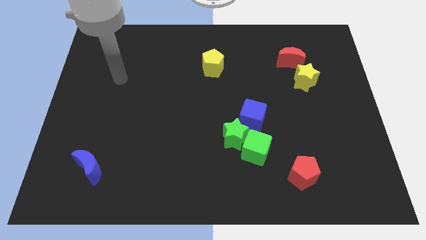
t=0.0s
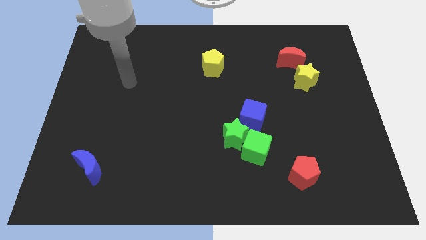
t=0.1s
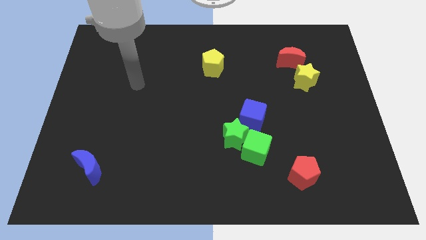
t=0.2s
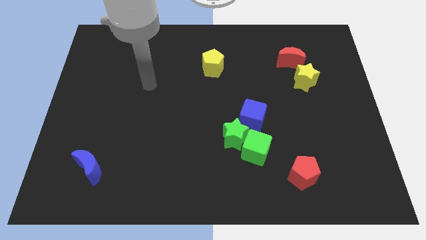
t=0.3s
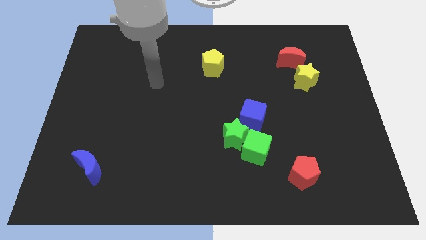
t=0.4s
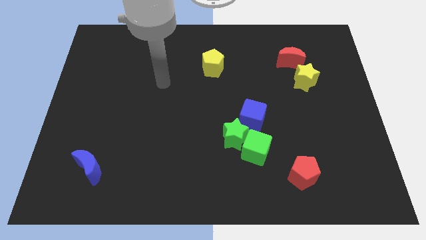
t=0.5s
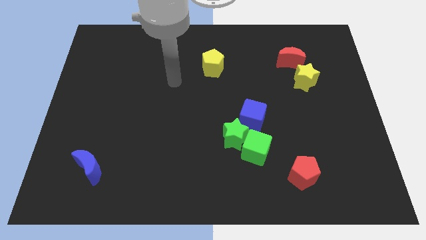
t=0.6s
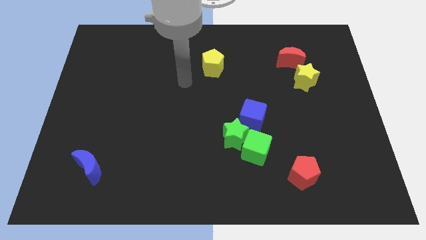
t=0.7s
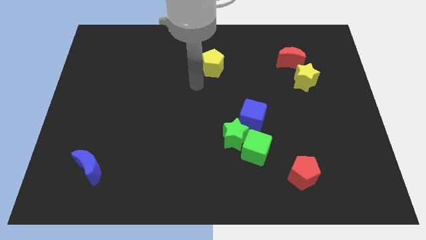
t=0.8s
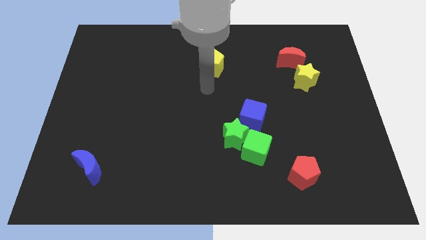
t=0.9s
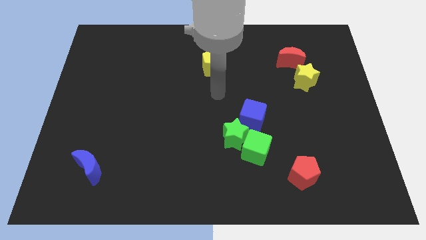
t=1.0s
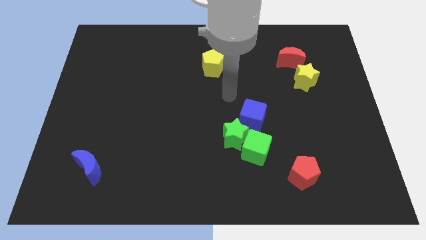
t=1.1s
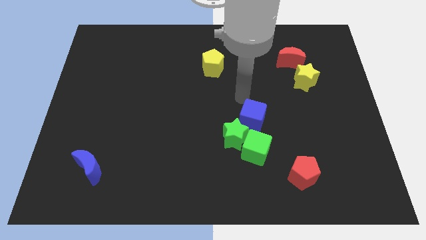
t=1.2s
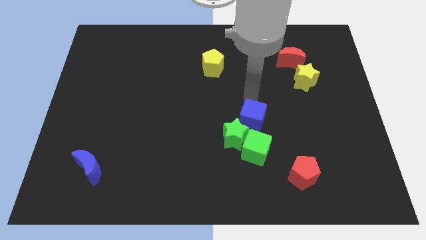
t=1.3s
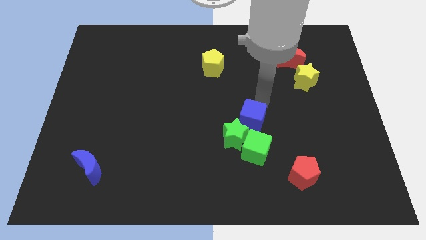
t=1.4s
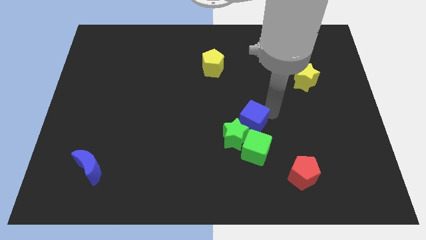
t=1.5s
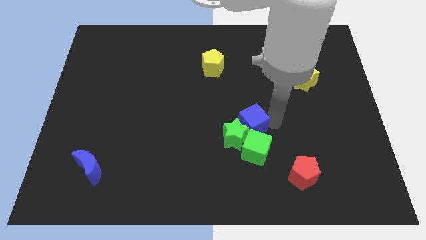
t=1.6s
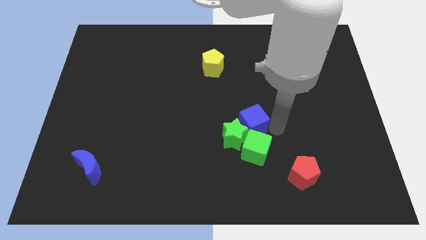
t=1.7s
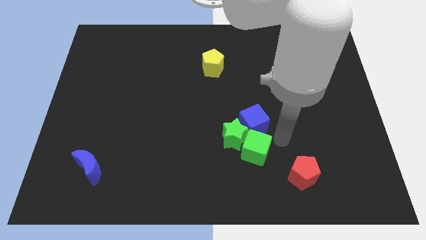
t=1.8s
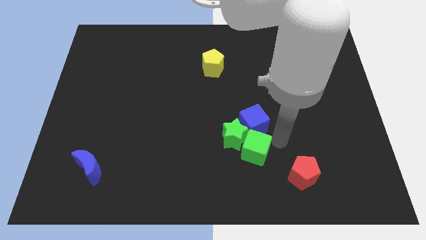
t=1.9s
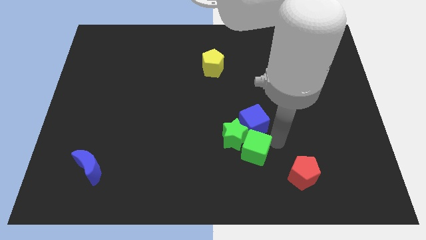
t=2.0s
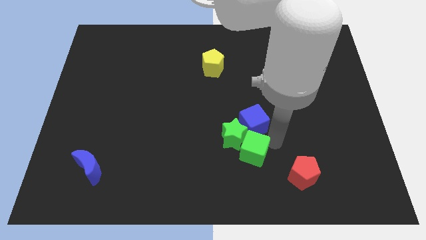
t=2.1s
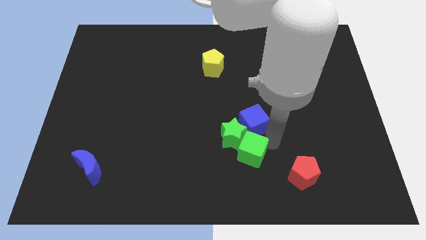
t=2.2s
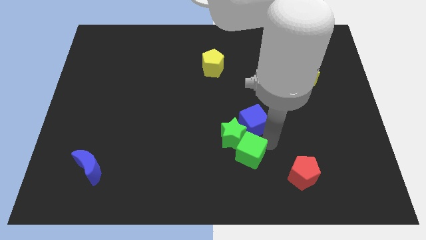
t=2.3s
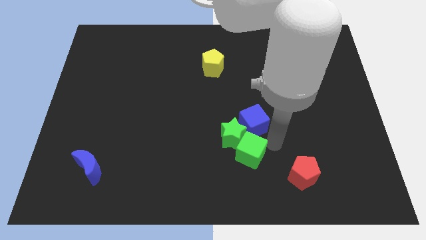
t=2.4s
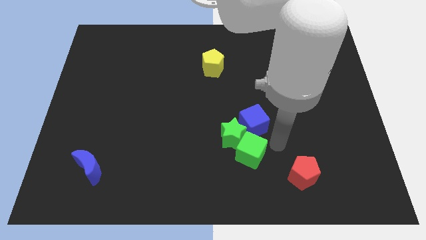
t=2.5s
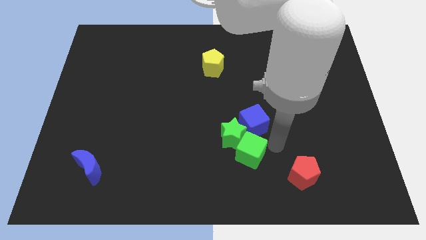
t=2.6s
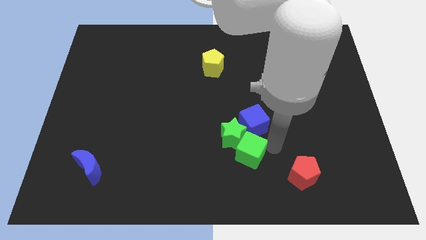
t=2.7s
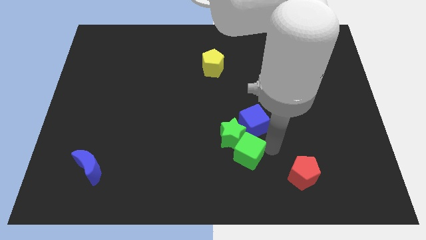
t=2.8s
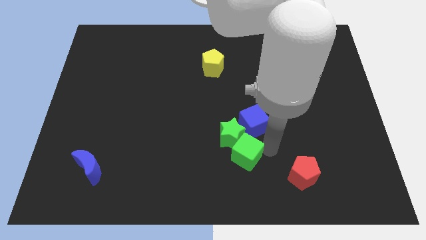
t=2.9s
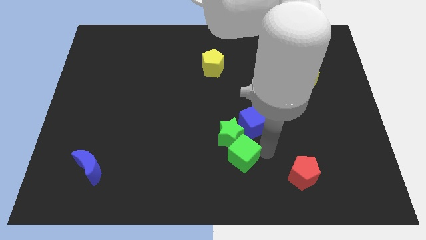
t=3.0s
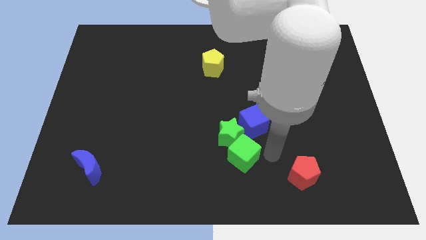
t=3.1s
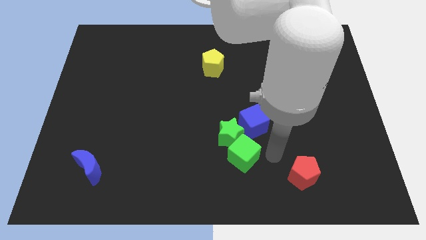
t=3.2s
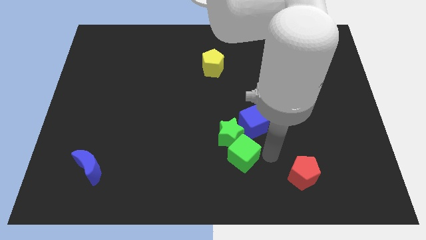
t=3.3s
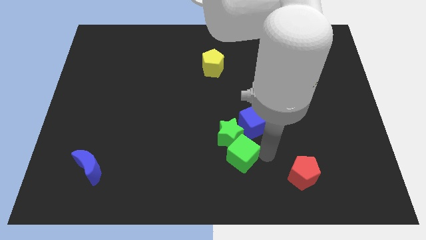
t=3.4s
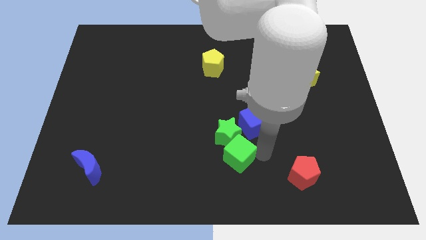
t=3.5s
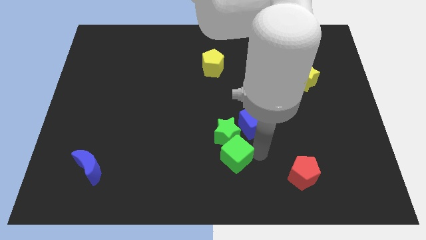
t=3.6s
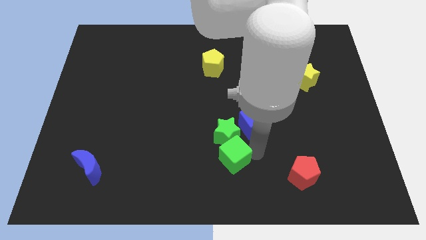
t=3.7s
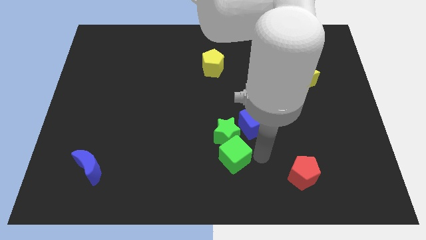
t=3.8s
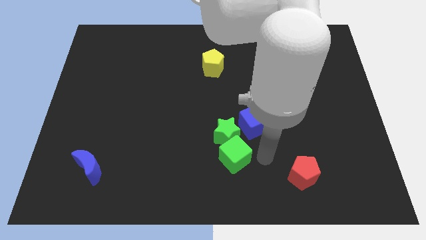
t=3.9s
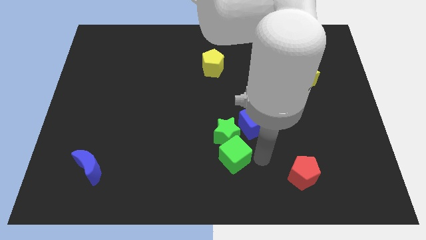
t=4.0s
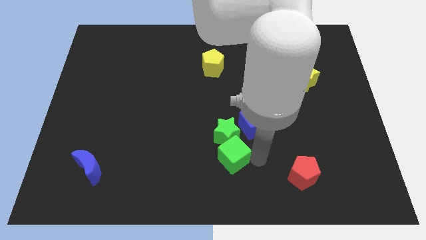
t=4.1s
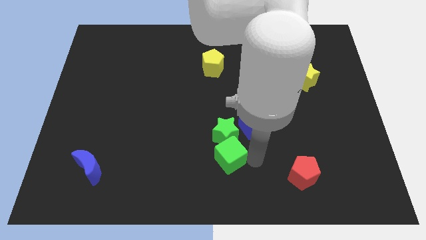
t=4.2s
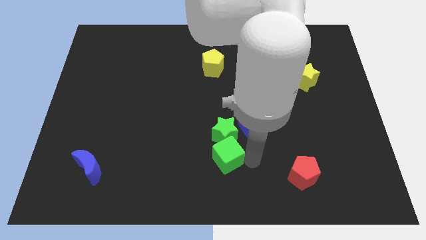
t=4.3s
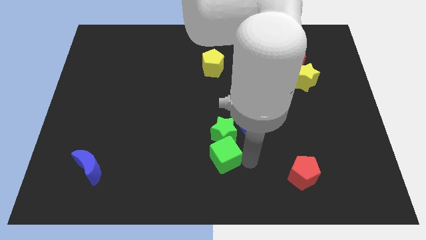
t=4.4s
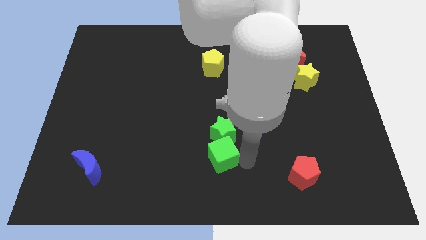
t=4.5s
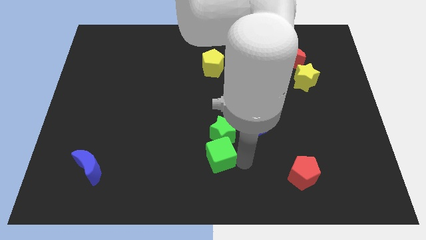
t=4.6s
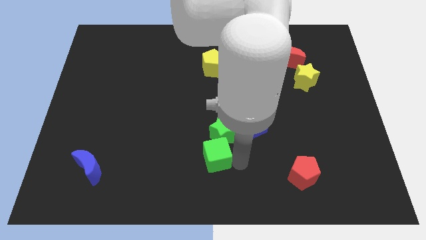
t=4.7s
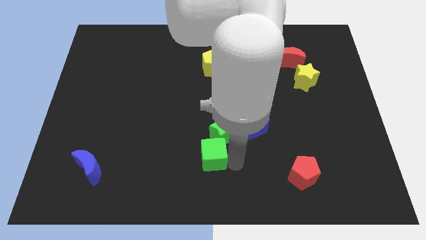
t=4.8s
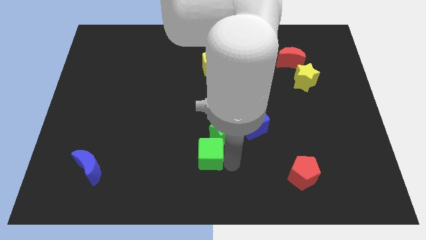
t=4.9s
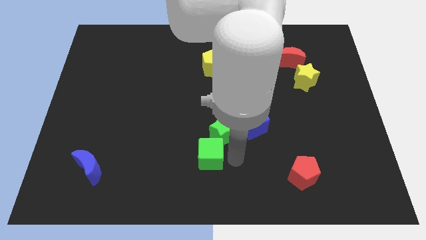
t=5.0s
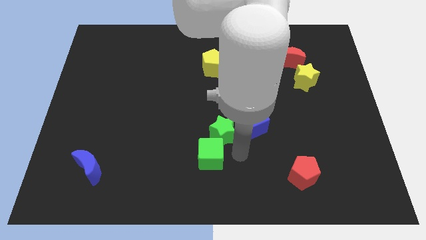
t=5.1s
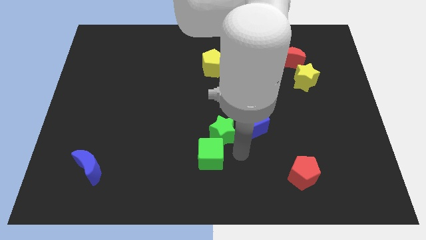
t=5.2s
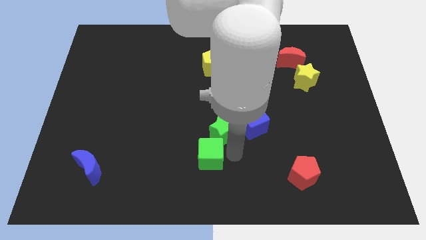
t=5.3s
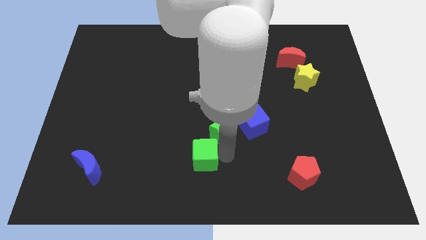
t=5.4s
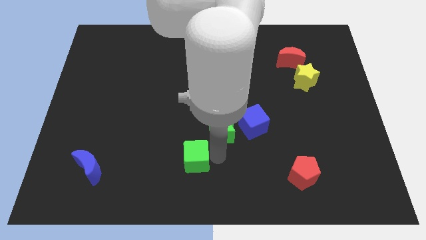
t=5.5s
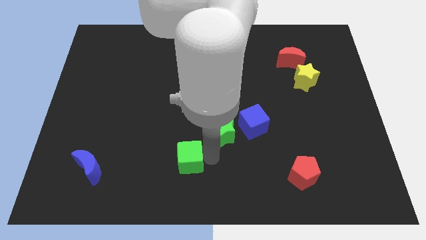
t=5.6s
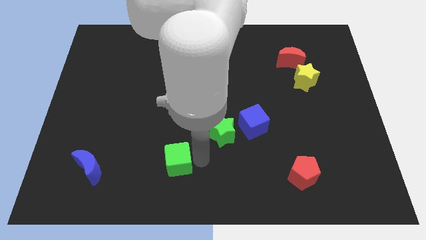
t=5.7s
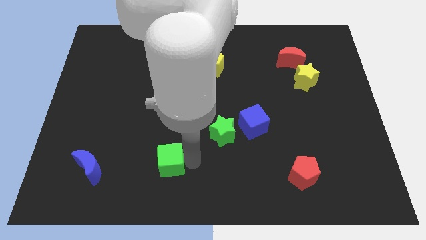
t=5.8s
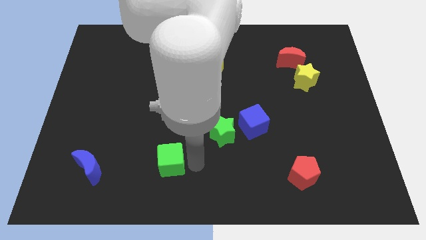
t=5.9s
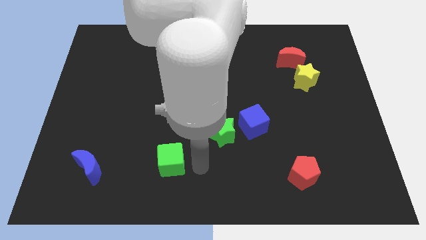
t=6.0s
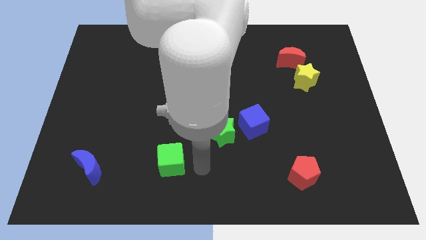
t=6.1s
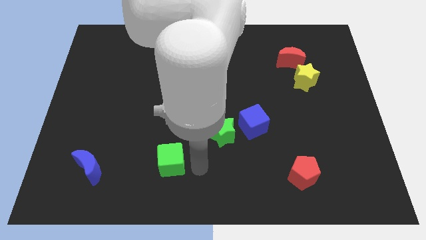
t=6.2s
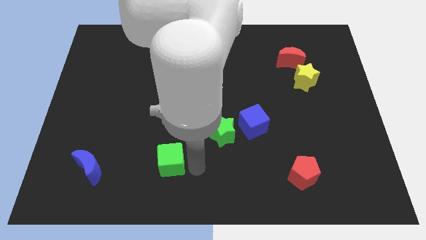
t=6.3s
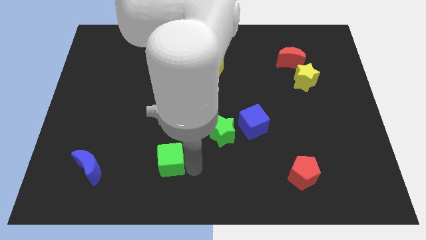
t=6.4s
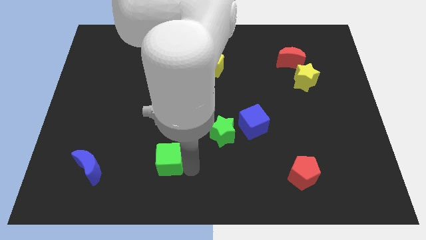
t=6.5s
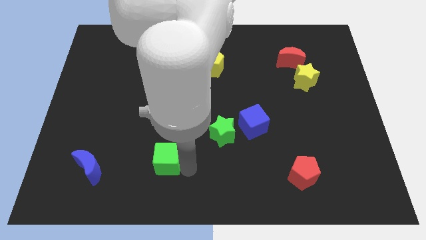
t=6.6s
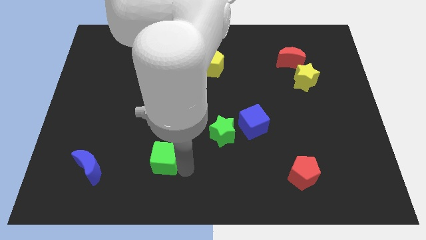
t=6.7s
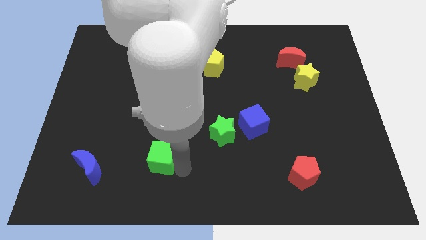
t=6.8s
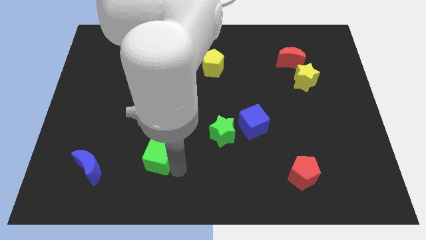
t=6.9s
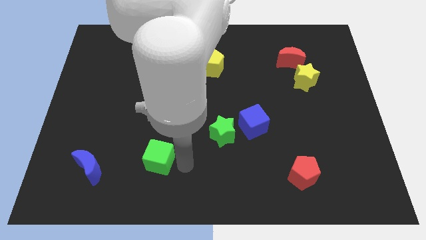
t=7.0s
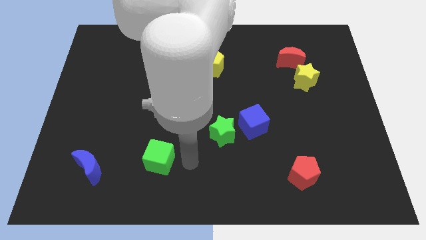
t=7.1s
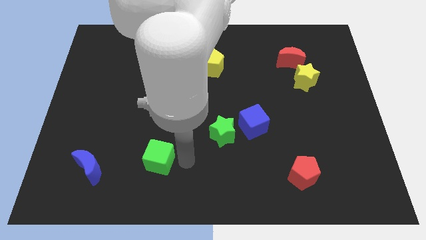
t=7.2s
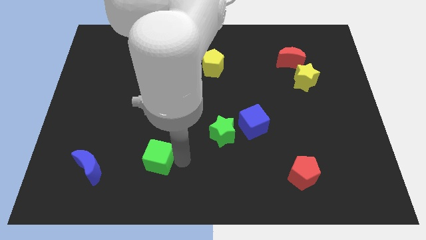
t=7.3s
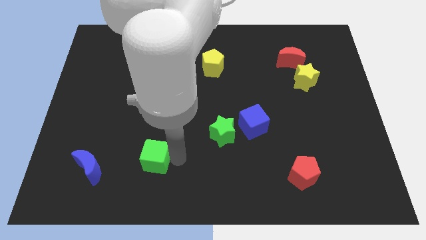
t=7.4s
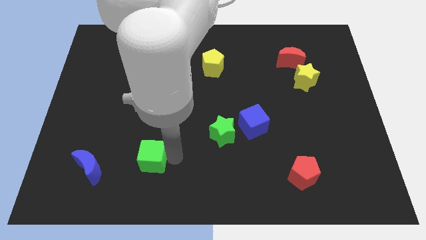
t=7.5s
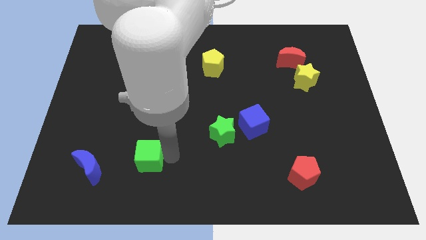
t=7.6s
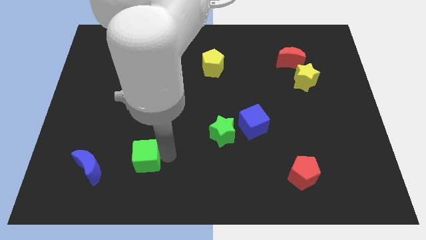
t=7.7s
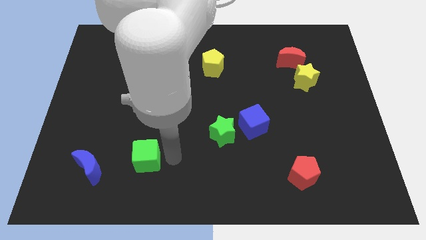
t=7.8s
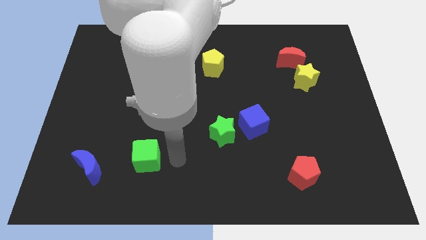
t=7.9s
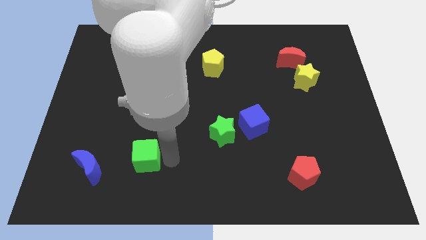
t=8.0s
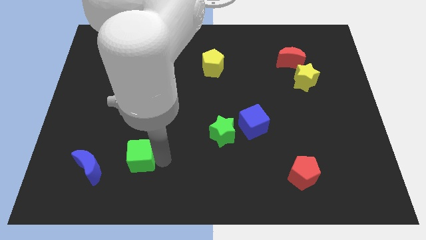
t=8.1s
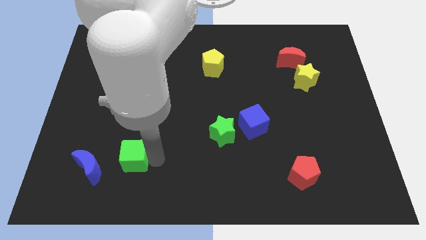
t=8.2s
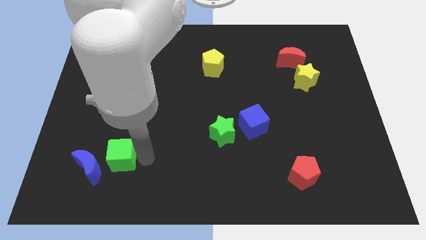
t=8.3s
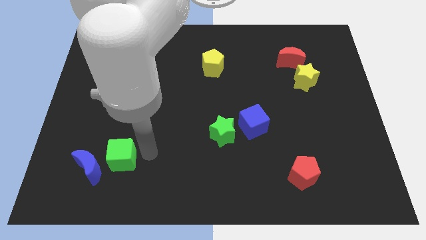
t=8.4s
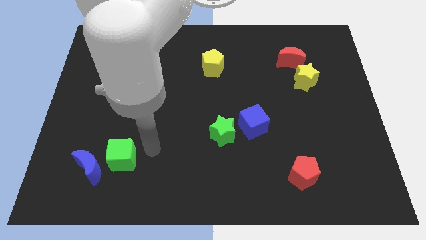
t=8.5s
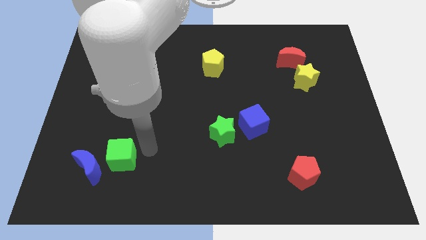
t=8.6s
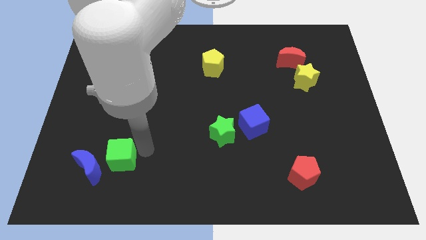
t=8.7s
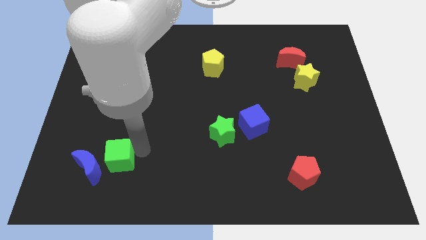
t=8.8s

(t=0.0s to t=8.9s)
slide the green cube towards the blue moon
